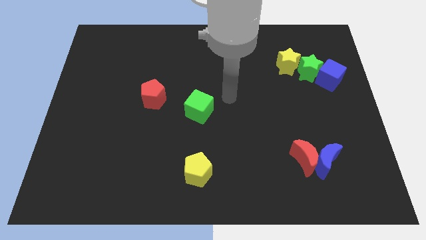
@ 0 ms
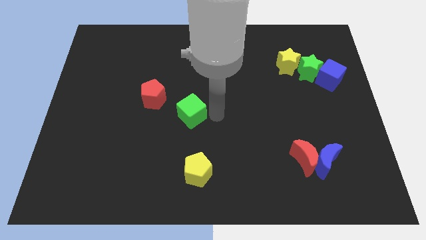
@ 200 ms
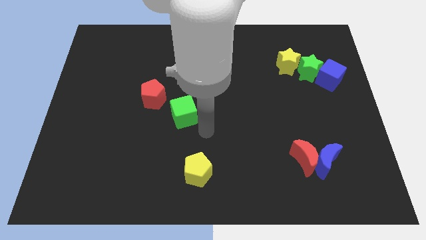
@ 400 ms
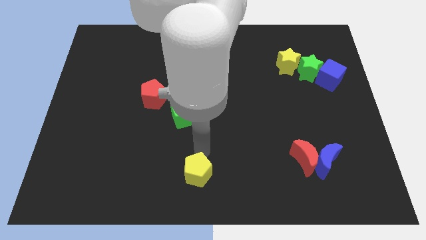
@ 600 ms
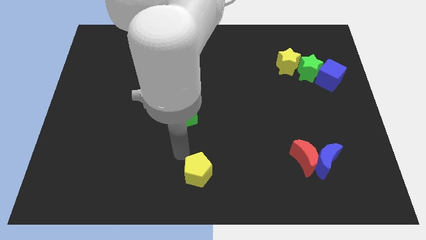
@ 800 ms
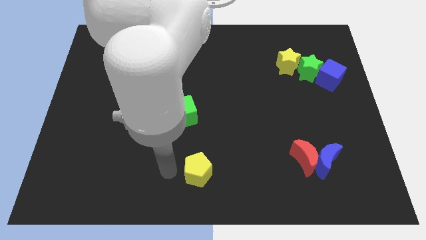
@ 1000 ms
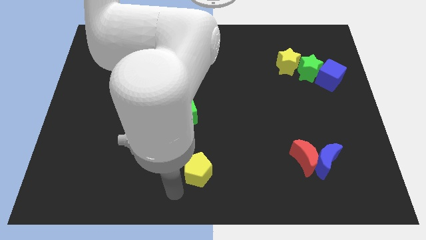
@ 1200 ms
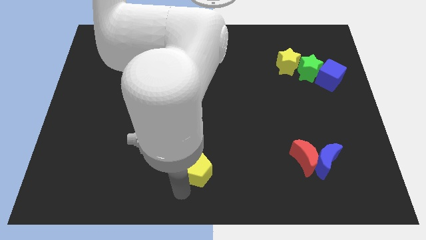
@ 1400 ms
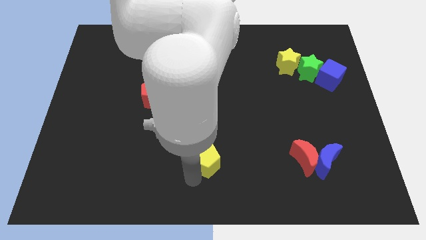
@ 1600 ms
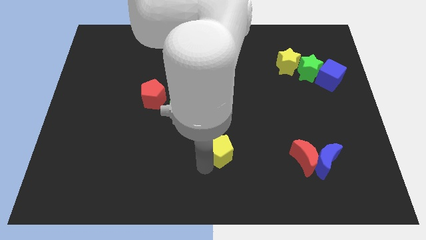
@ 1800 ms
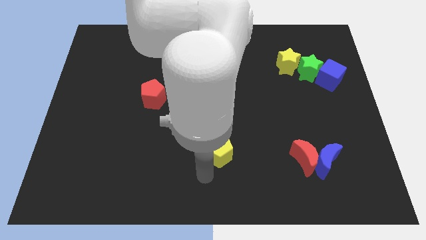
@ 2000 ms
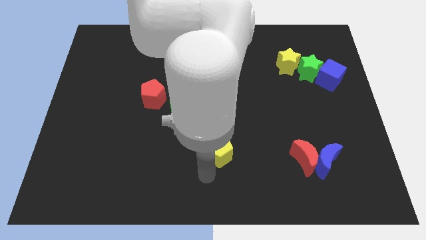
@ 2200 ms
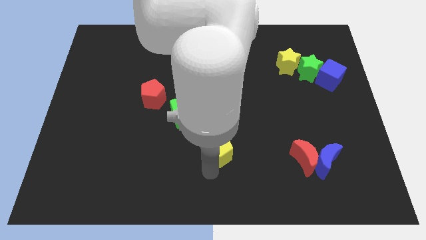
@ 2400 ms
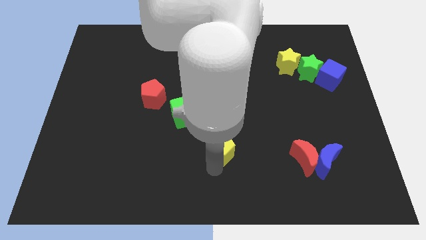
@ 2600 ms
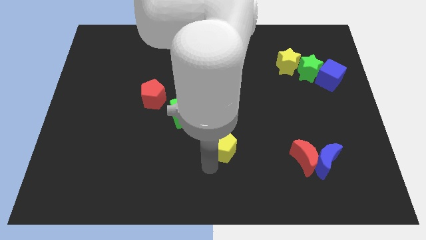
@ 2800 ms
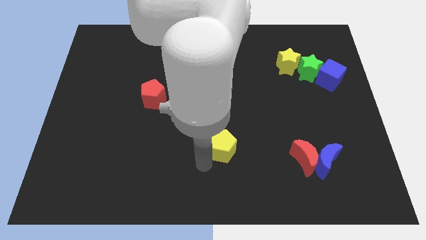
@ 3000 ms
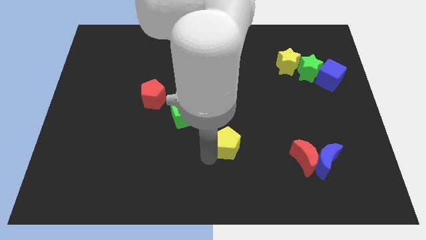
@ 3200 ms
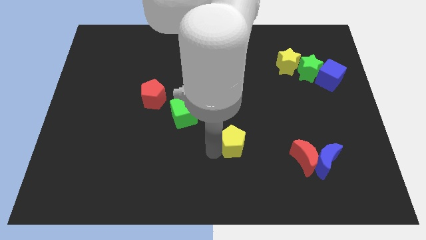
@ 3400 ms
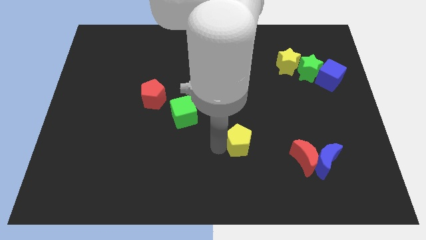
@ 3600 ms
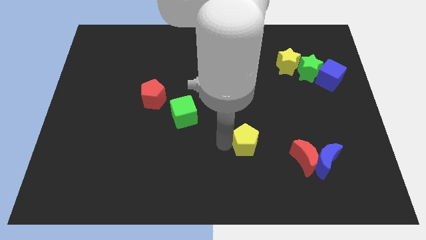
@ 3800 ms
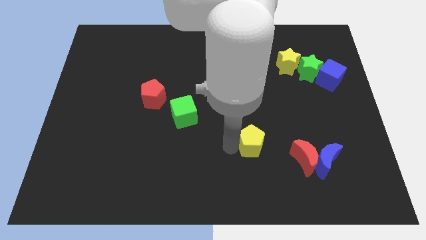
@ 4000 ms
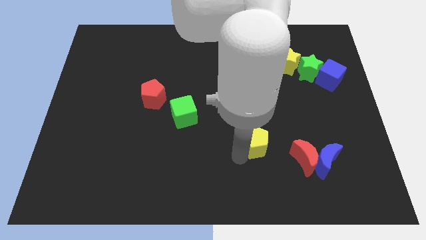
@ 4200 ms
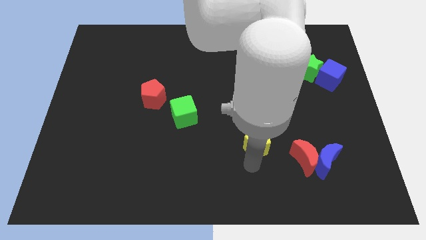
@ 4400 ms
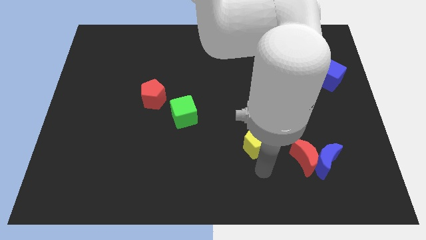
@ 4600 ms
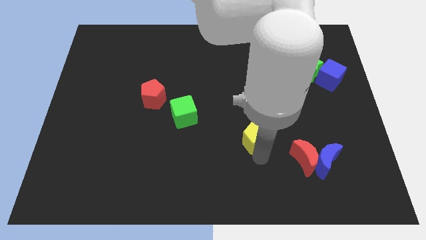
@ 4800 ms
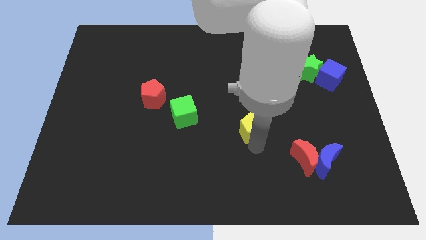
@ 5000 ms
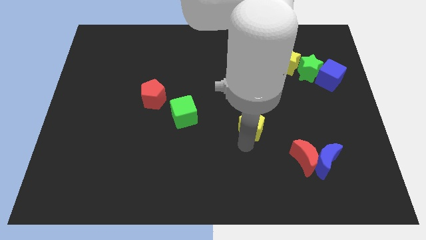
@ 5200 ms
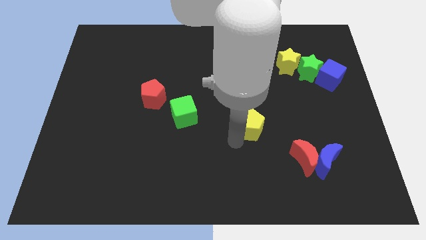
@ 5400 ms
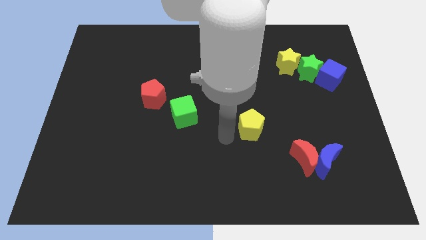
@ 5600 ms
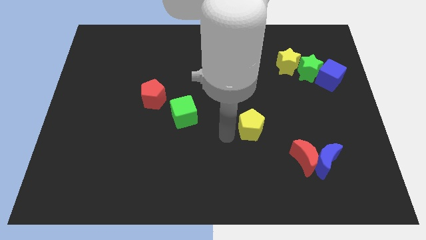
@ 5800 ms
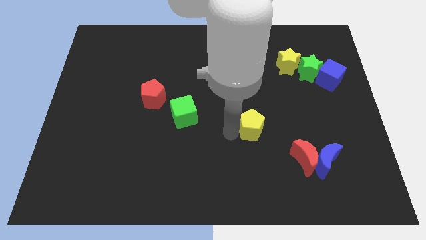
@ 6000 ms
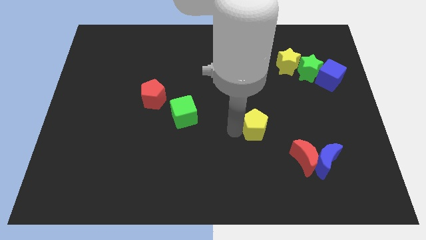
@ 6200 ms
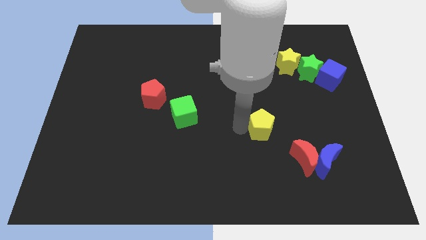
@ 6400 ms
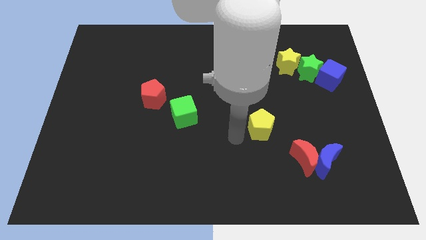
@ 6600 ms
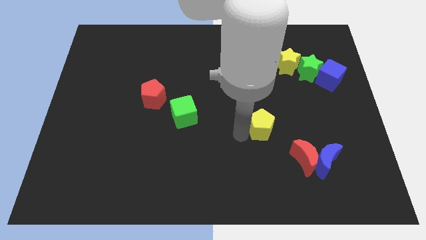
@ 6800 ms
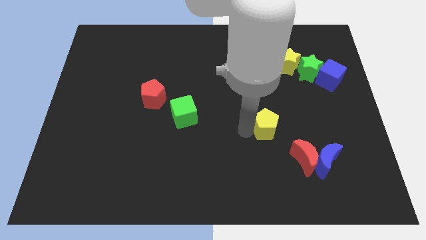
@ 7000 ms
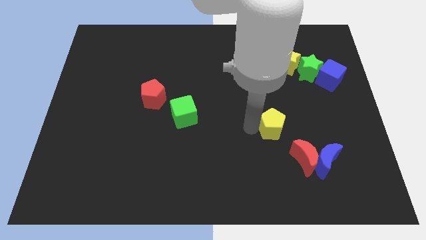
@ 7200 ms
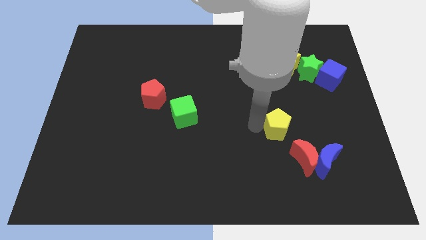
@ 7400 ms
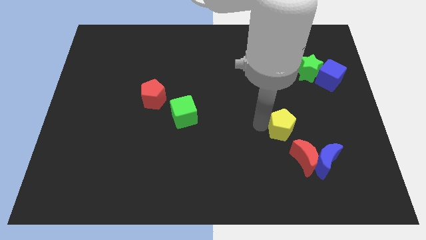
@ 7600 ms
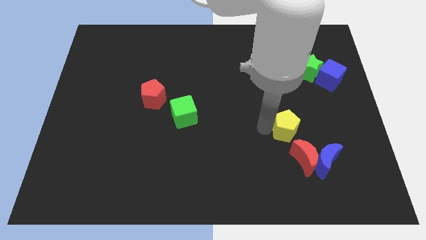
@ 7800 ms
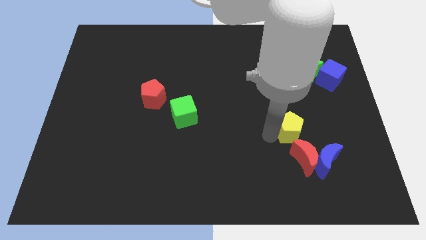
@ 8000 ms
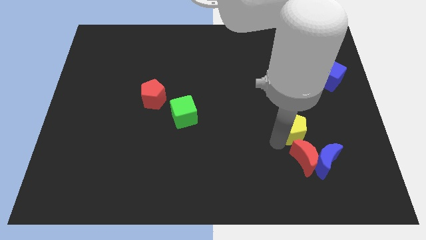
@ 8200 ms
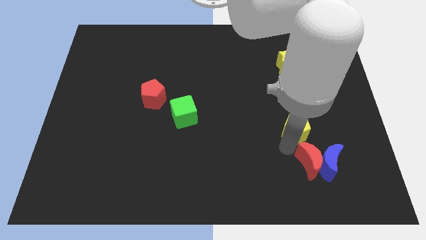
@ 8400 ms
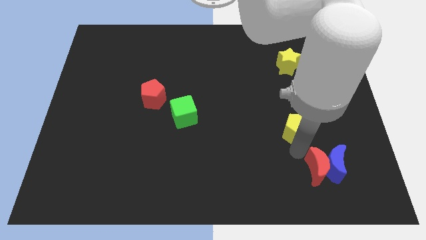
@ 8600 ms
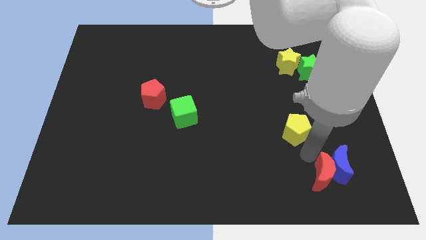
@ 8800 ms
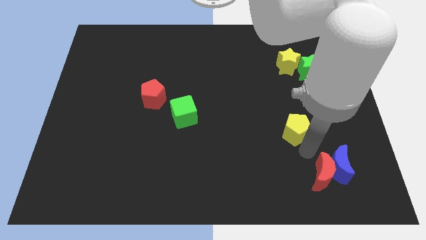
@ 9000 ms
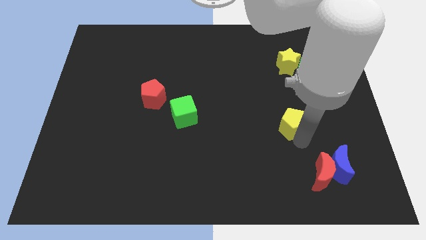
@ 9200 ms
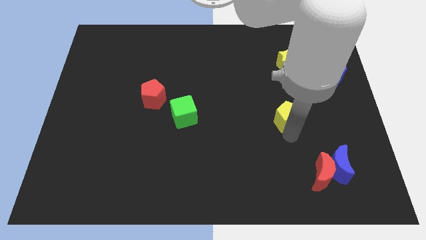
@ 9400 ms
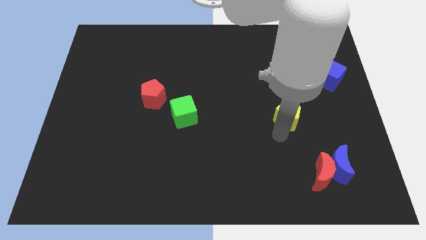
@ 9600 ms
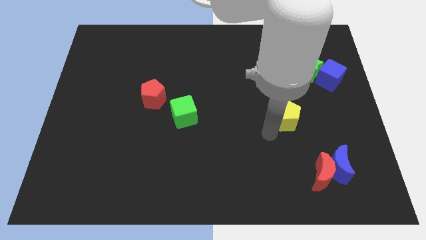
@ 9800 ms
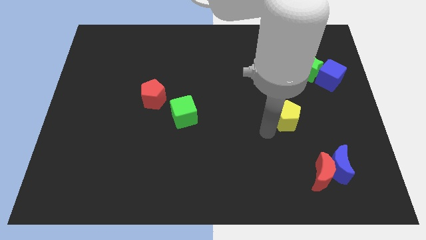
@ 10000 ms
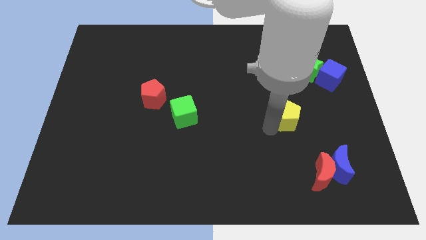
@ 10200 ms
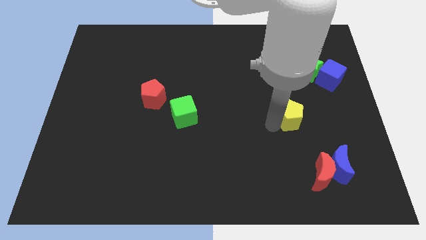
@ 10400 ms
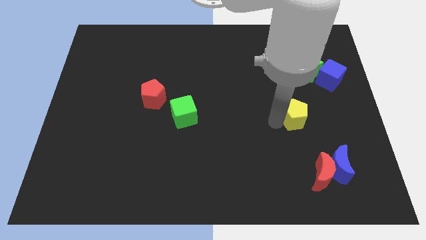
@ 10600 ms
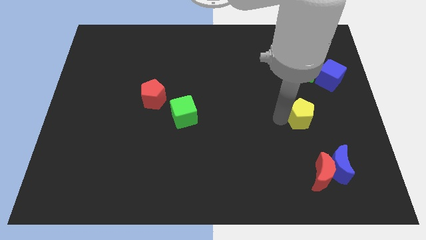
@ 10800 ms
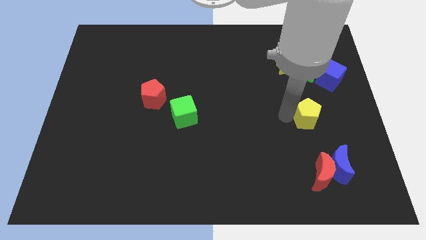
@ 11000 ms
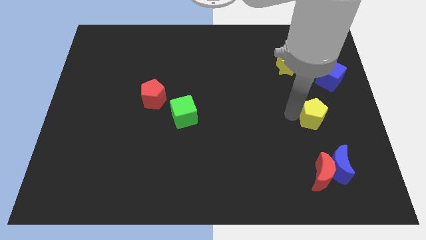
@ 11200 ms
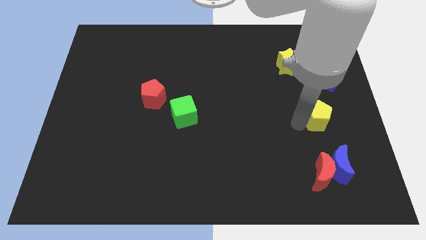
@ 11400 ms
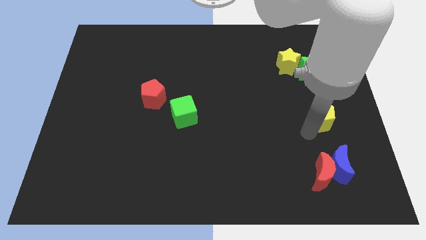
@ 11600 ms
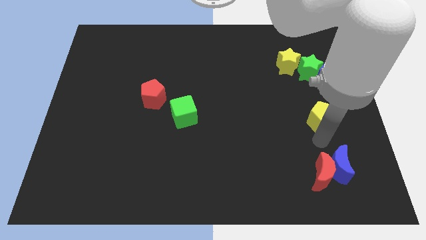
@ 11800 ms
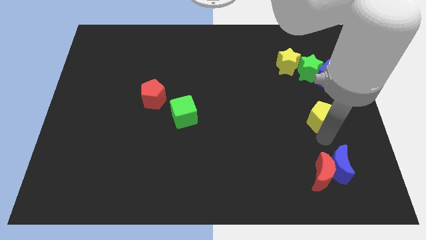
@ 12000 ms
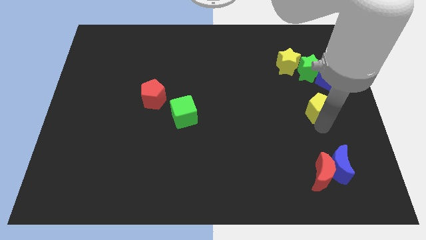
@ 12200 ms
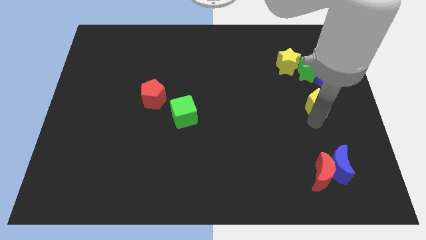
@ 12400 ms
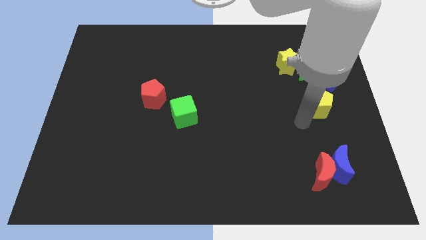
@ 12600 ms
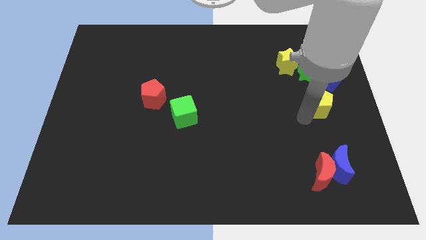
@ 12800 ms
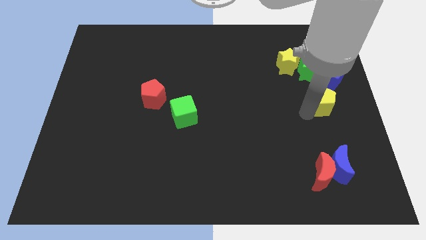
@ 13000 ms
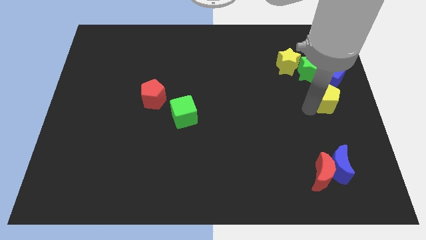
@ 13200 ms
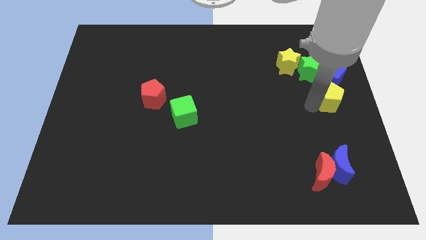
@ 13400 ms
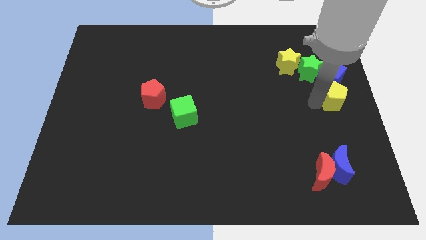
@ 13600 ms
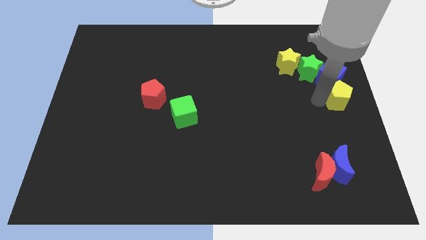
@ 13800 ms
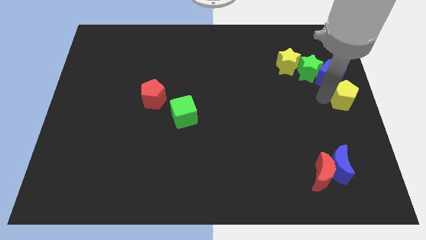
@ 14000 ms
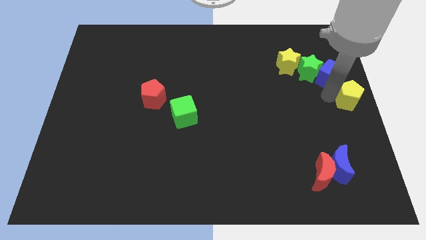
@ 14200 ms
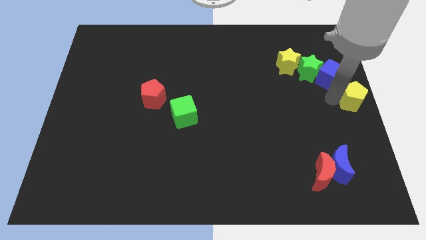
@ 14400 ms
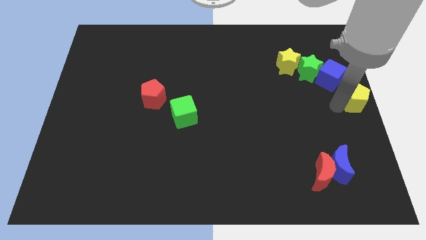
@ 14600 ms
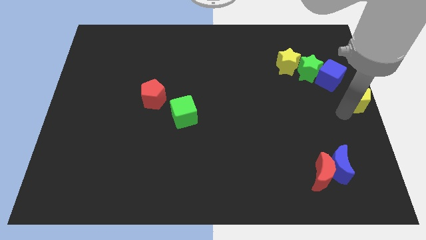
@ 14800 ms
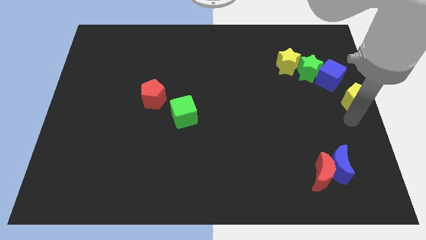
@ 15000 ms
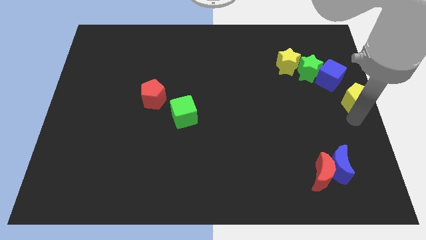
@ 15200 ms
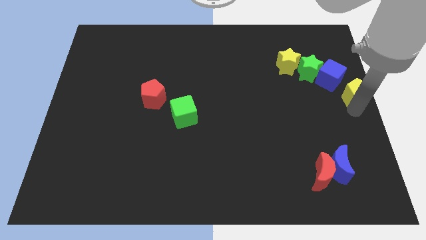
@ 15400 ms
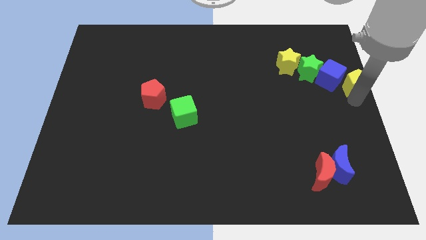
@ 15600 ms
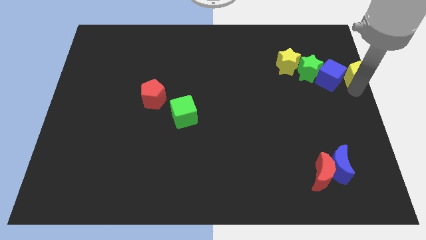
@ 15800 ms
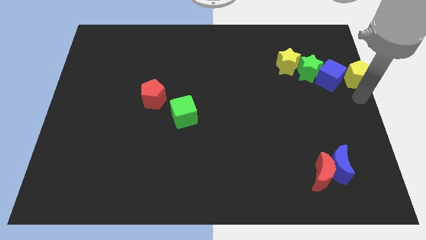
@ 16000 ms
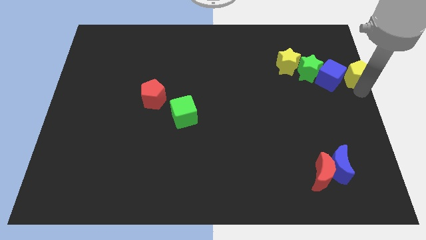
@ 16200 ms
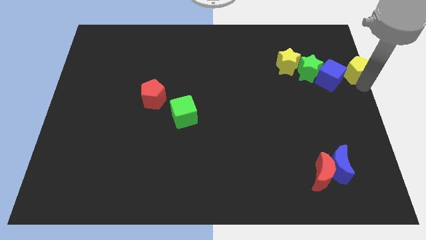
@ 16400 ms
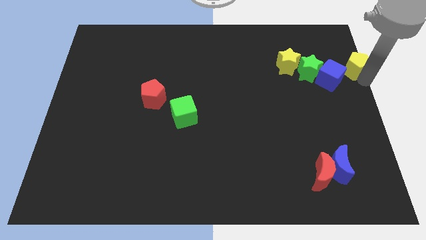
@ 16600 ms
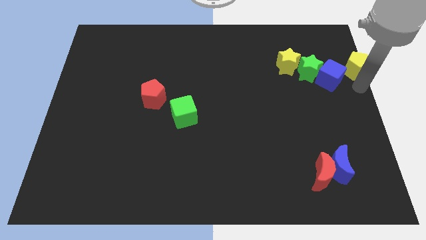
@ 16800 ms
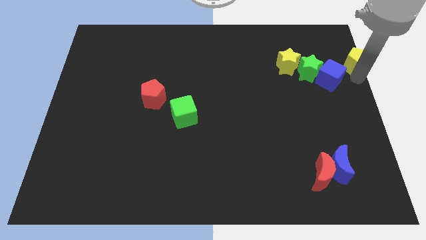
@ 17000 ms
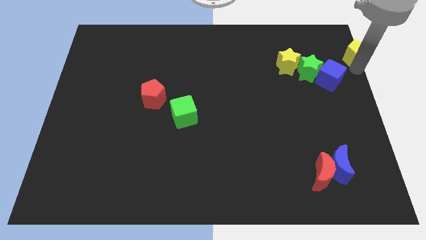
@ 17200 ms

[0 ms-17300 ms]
slide the yellow pentagon to the upper right corner
